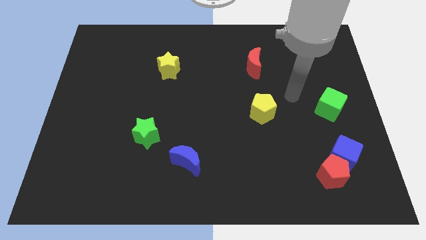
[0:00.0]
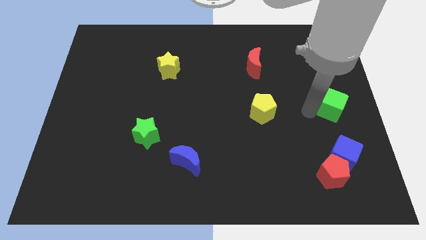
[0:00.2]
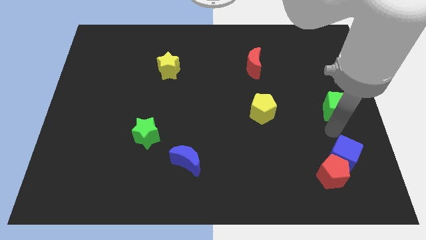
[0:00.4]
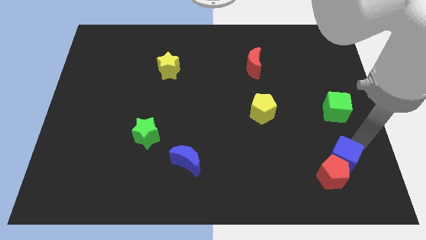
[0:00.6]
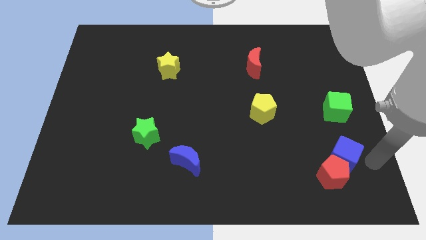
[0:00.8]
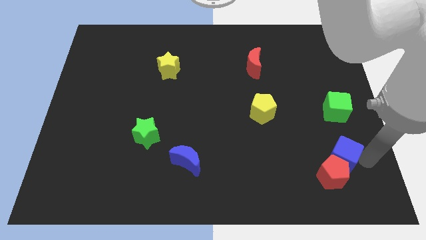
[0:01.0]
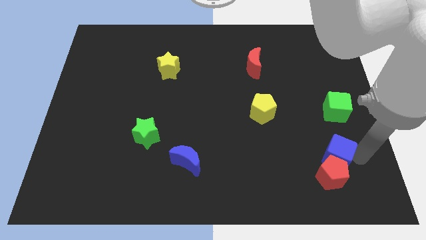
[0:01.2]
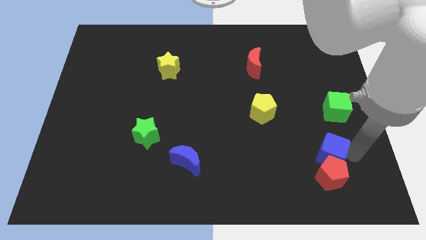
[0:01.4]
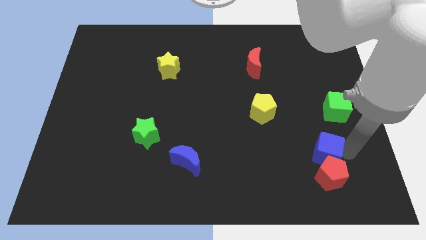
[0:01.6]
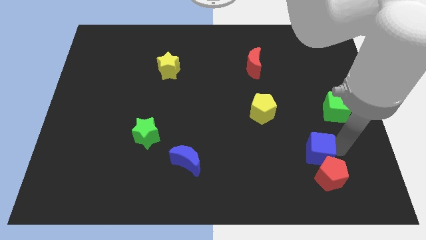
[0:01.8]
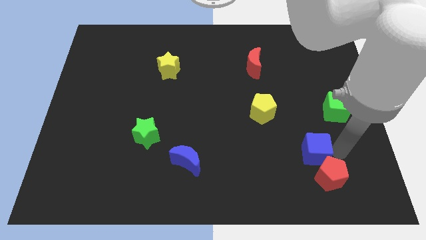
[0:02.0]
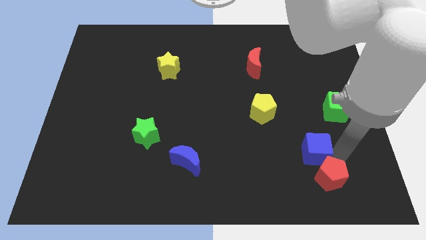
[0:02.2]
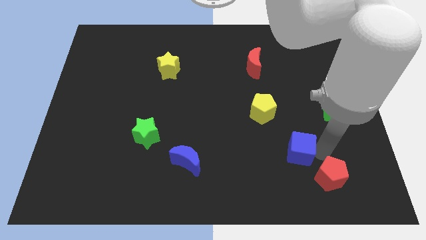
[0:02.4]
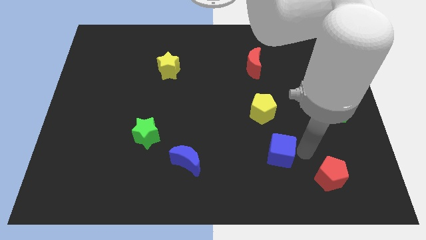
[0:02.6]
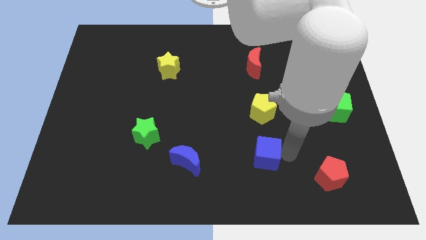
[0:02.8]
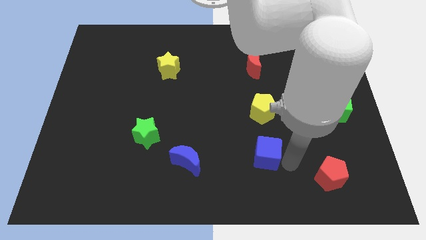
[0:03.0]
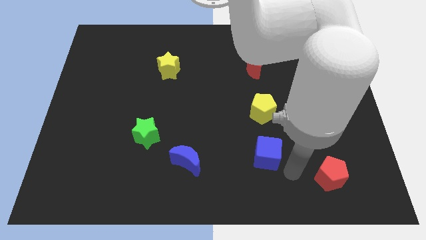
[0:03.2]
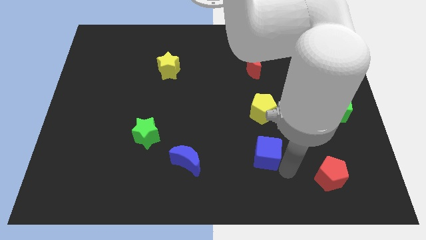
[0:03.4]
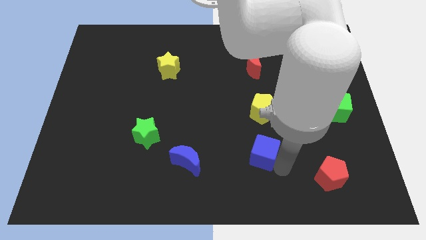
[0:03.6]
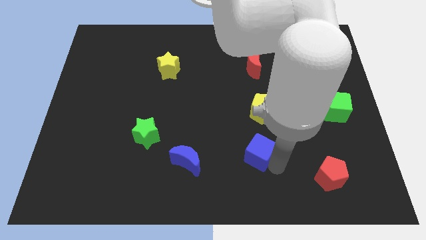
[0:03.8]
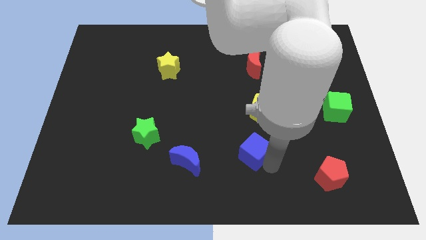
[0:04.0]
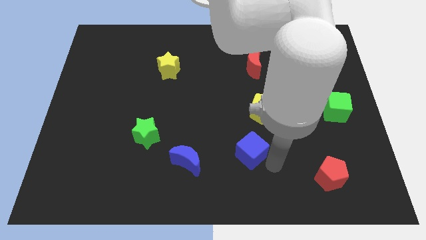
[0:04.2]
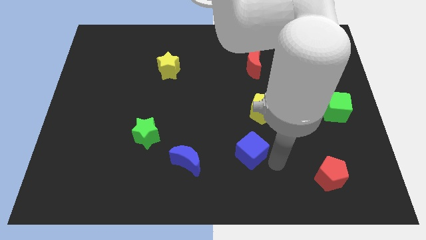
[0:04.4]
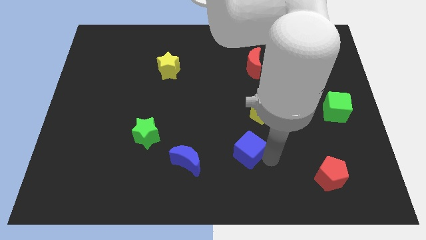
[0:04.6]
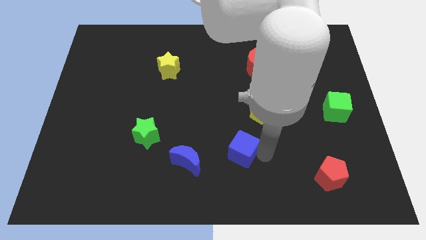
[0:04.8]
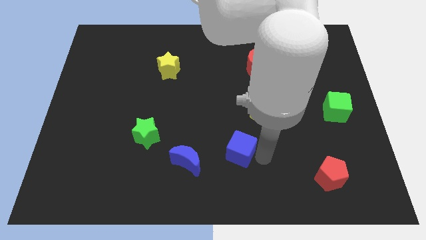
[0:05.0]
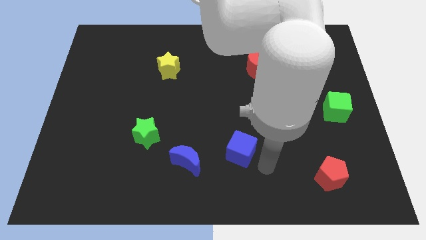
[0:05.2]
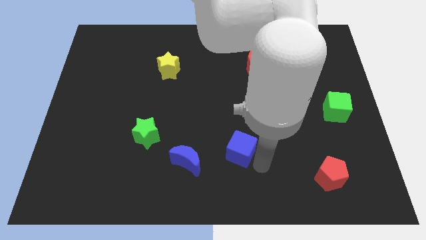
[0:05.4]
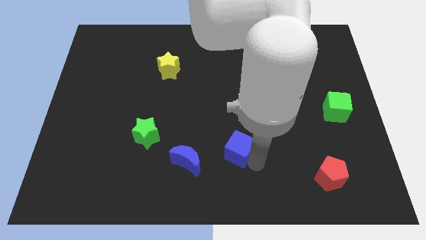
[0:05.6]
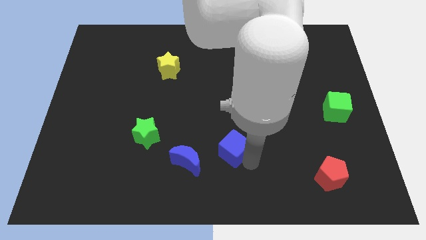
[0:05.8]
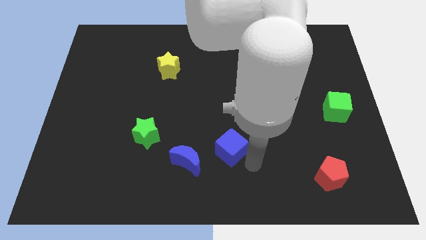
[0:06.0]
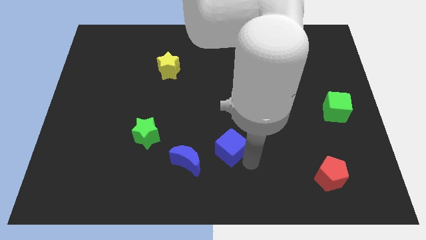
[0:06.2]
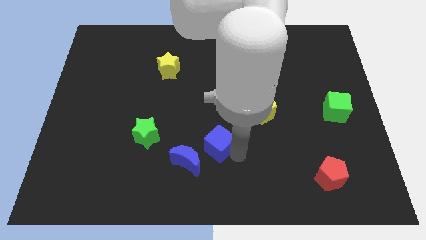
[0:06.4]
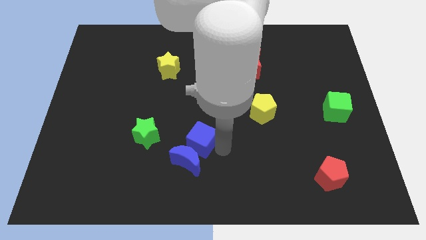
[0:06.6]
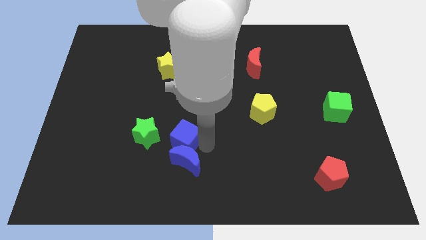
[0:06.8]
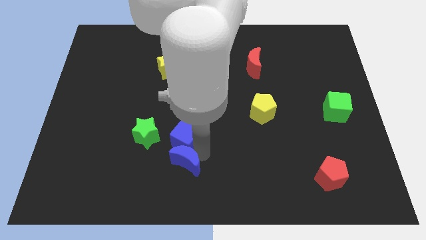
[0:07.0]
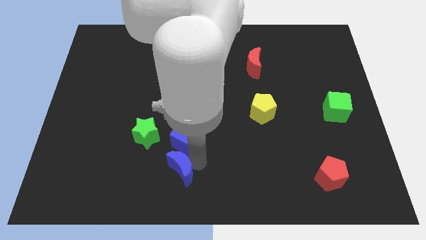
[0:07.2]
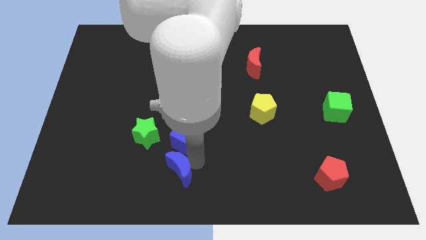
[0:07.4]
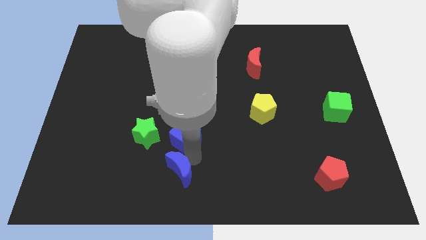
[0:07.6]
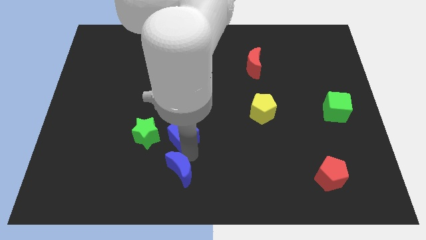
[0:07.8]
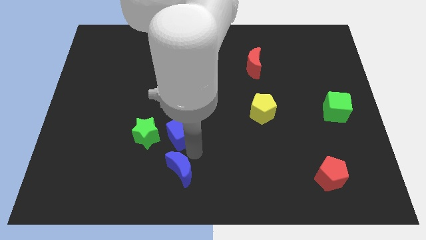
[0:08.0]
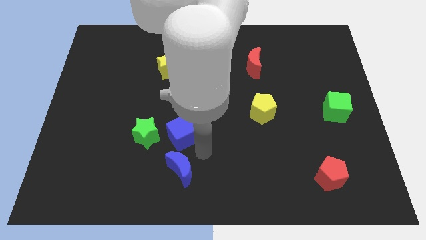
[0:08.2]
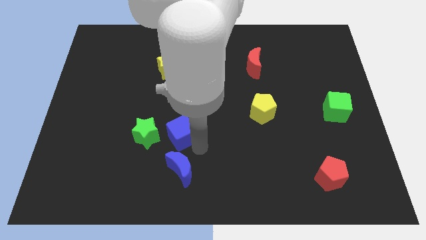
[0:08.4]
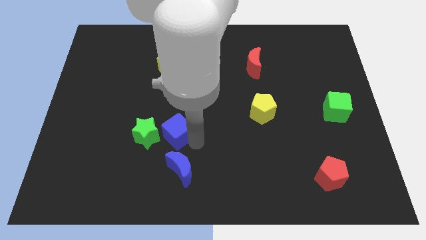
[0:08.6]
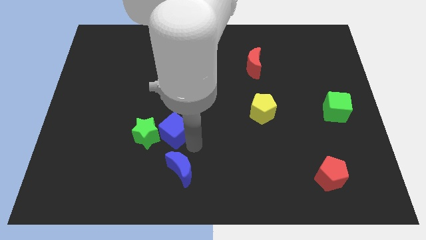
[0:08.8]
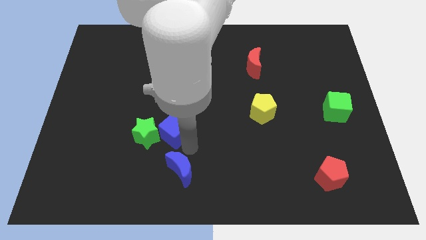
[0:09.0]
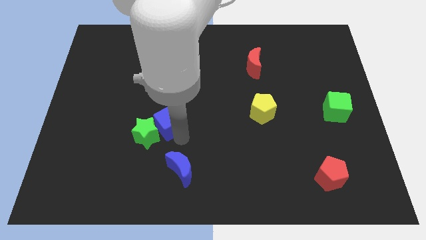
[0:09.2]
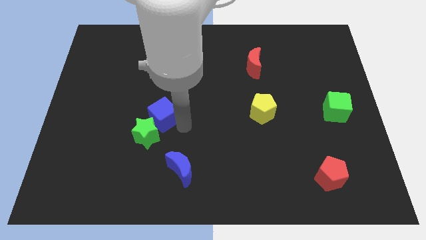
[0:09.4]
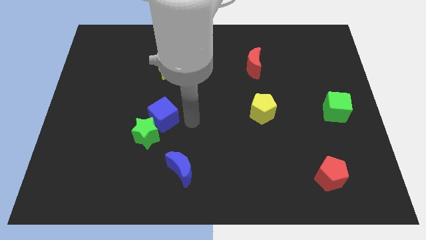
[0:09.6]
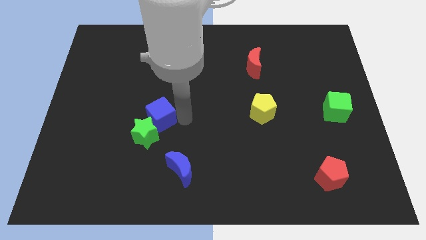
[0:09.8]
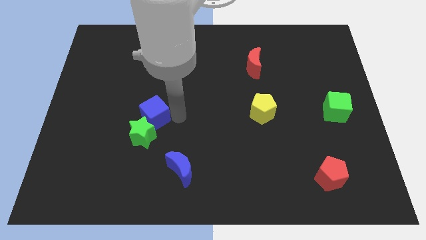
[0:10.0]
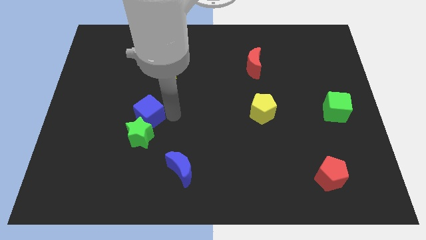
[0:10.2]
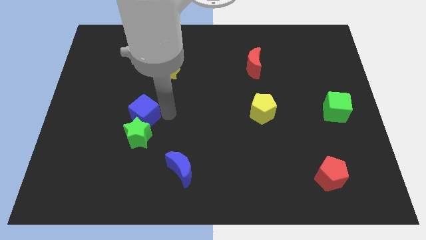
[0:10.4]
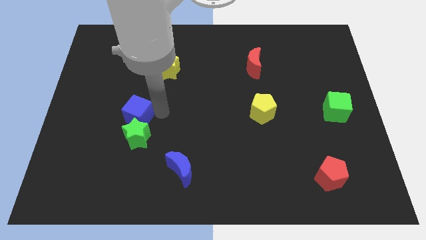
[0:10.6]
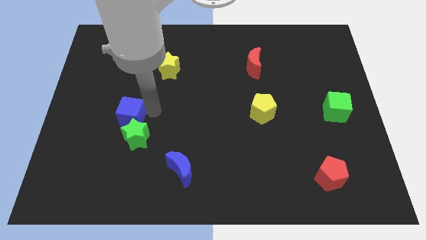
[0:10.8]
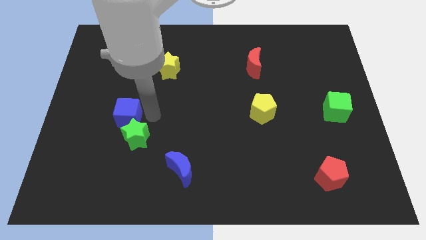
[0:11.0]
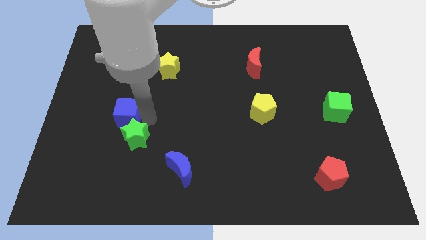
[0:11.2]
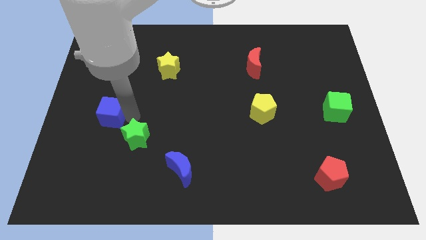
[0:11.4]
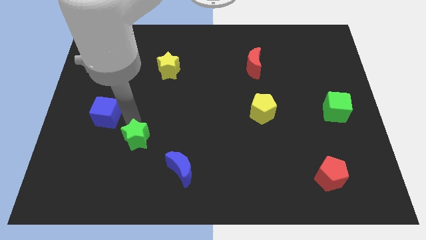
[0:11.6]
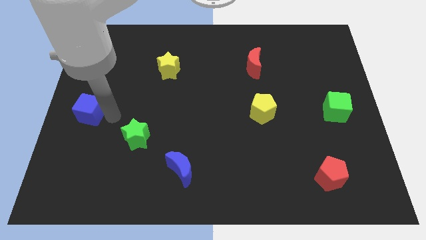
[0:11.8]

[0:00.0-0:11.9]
put the blue cube to the center left
